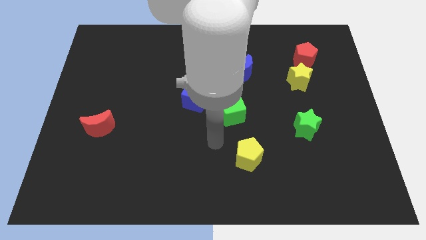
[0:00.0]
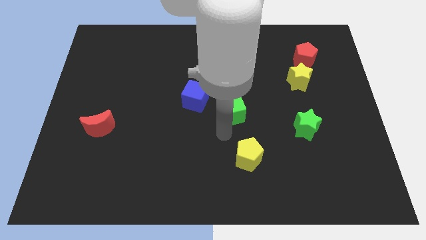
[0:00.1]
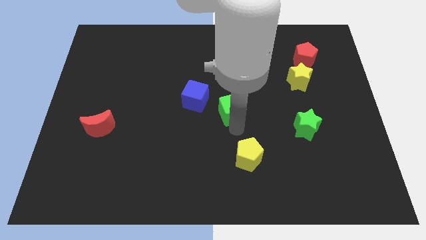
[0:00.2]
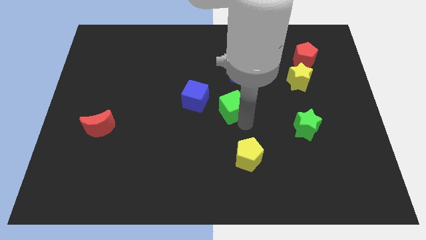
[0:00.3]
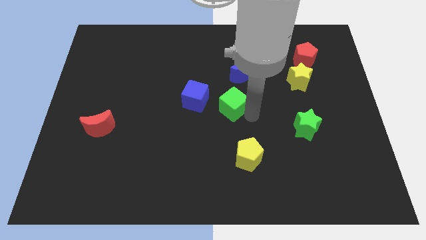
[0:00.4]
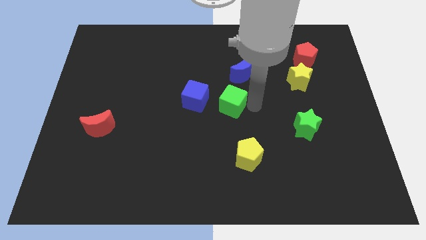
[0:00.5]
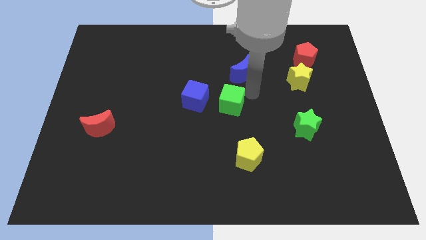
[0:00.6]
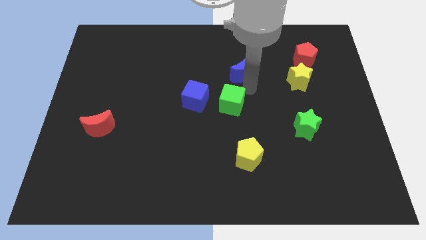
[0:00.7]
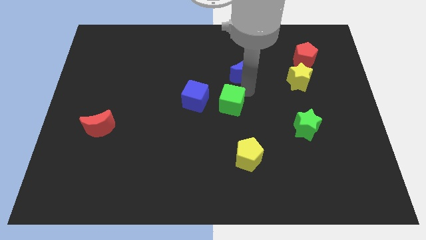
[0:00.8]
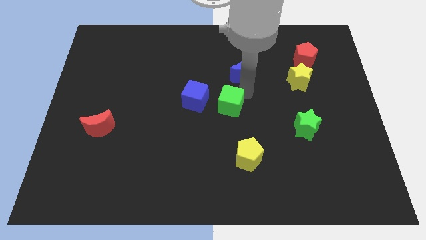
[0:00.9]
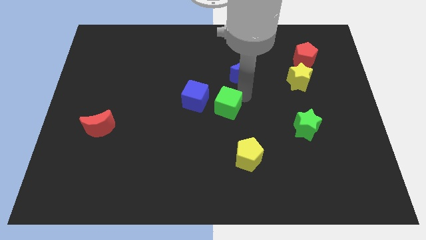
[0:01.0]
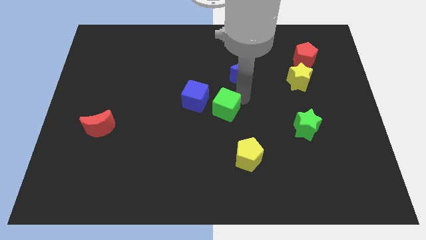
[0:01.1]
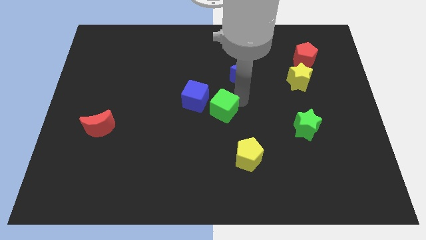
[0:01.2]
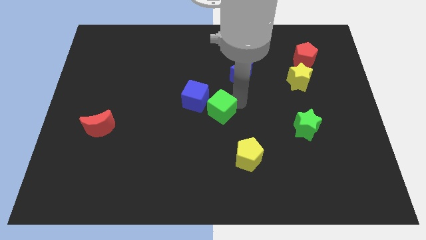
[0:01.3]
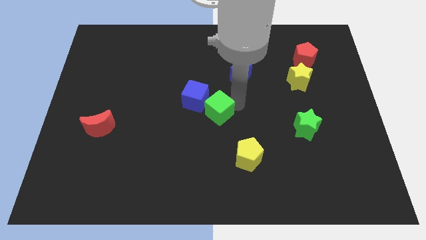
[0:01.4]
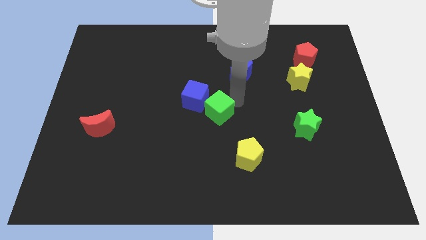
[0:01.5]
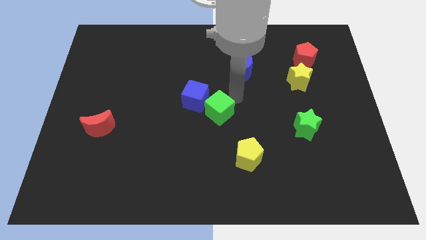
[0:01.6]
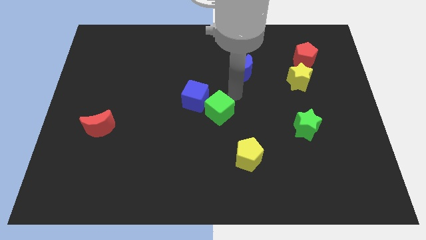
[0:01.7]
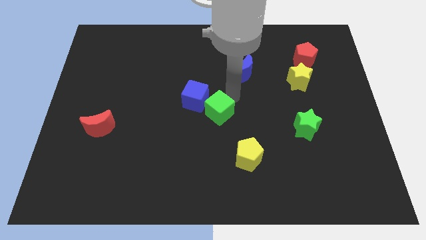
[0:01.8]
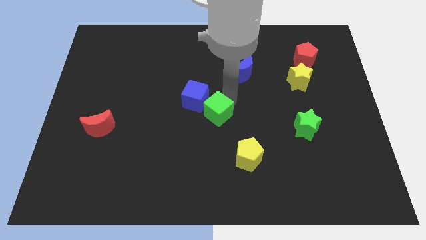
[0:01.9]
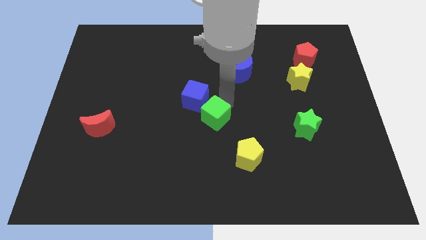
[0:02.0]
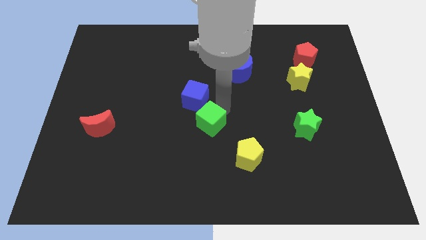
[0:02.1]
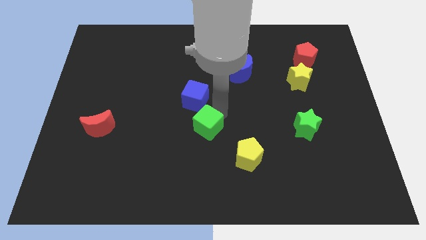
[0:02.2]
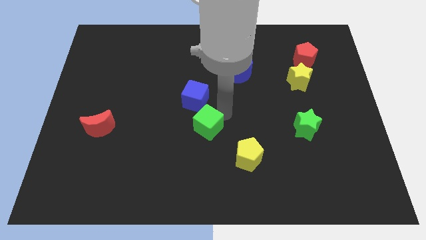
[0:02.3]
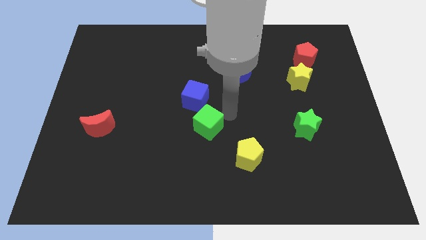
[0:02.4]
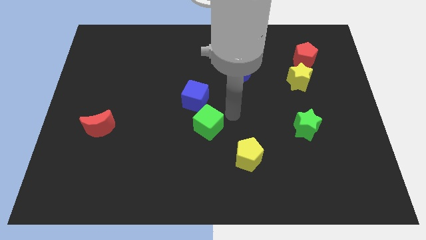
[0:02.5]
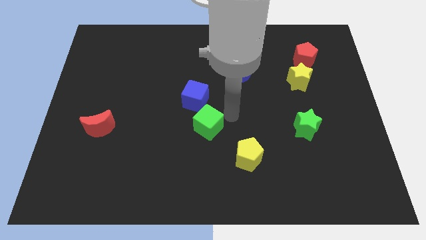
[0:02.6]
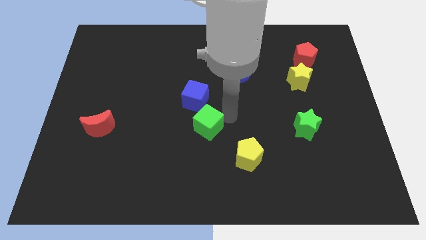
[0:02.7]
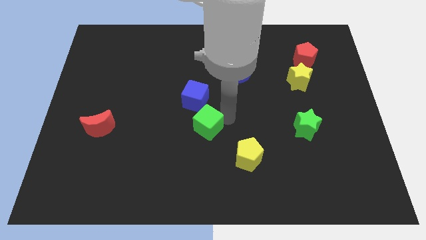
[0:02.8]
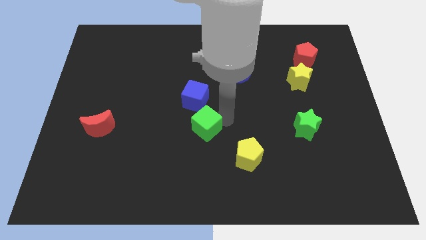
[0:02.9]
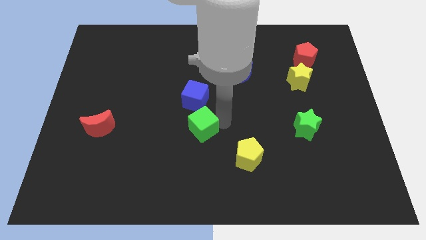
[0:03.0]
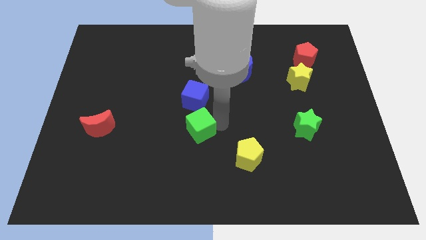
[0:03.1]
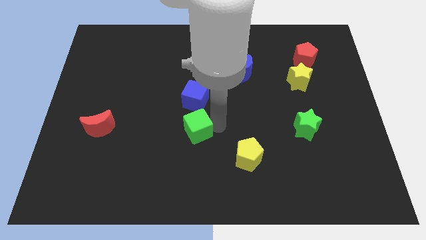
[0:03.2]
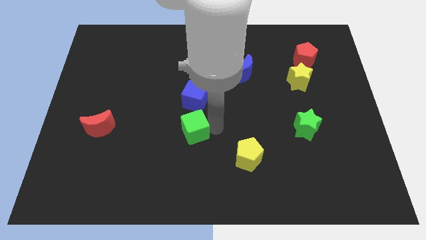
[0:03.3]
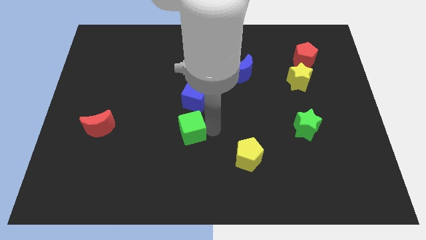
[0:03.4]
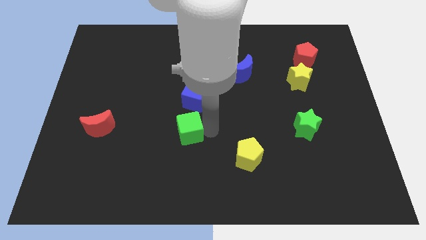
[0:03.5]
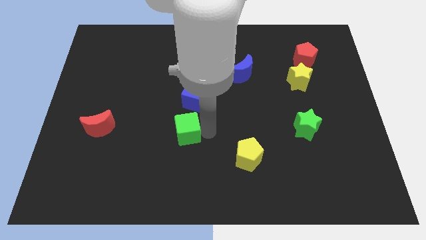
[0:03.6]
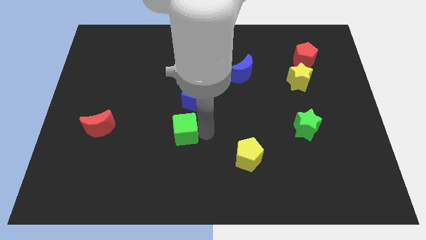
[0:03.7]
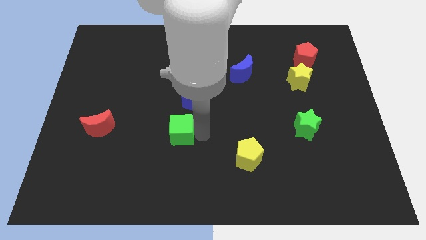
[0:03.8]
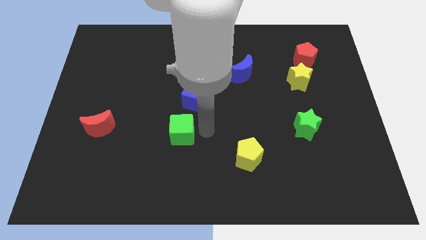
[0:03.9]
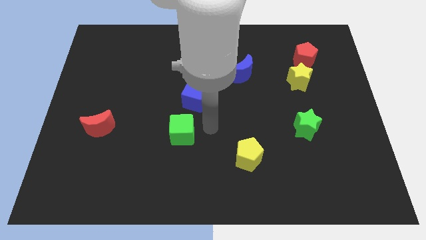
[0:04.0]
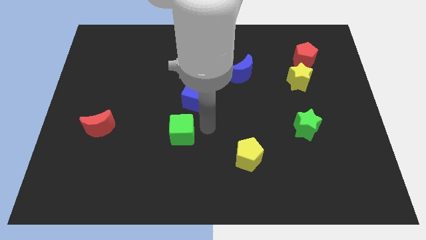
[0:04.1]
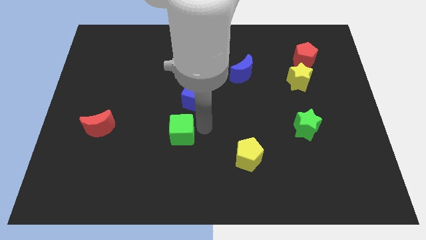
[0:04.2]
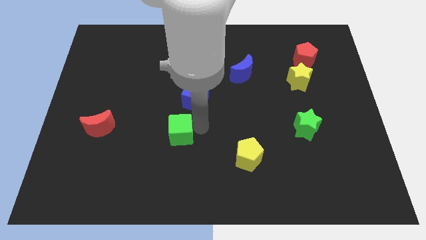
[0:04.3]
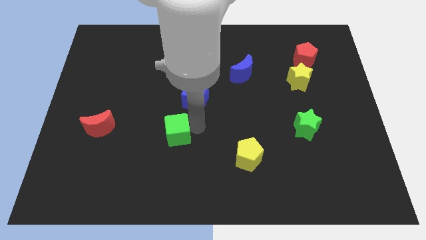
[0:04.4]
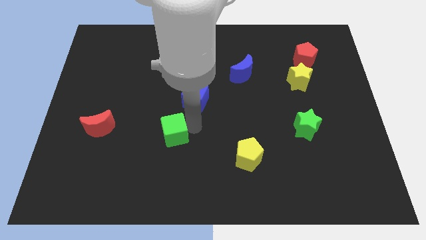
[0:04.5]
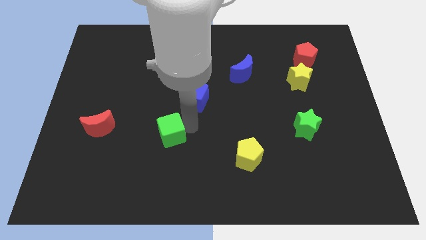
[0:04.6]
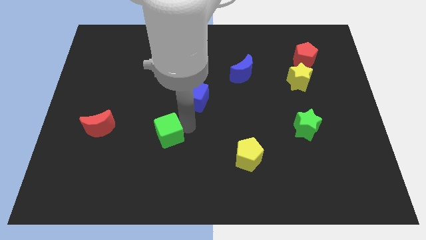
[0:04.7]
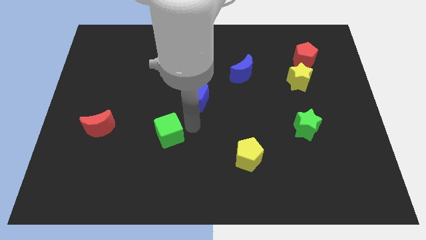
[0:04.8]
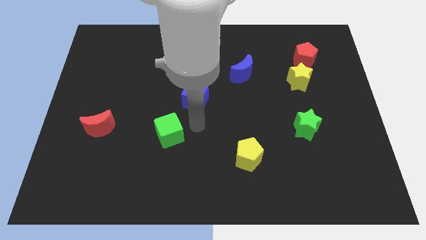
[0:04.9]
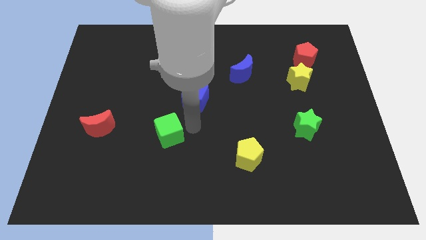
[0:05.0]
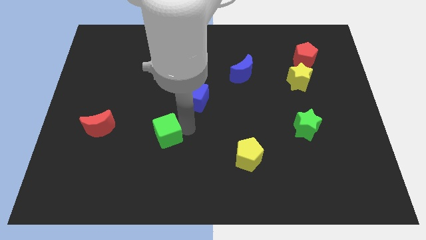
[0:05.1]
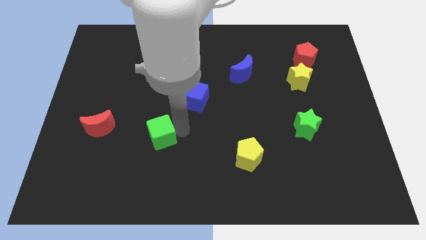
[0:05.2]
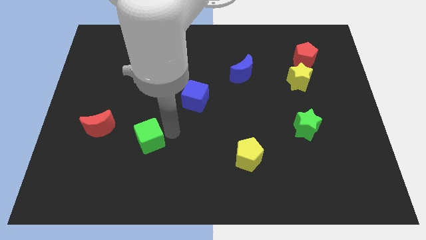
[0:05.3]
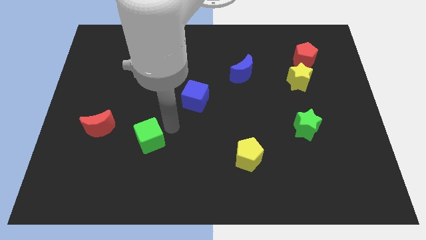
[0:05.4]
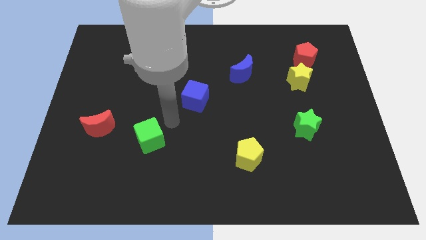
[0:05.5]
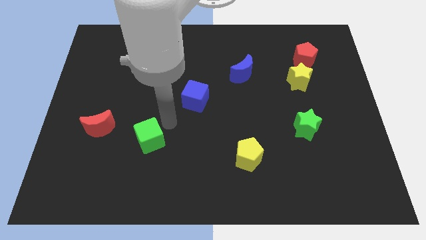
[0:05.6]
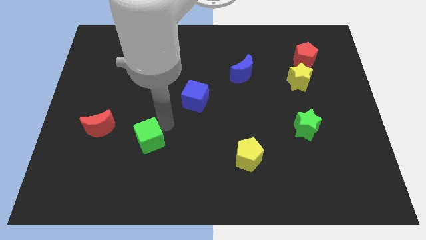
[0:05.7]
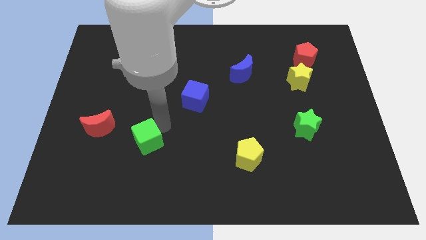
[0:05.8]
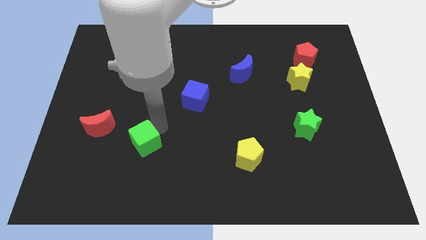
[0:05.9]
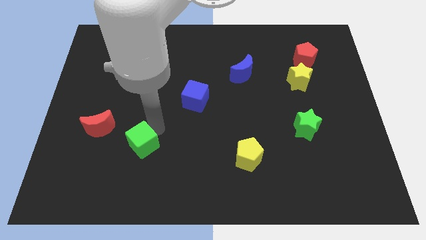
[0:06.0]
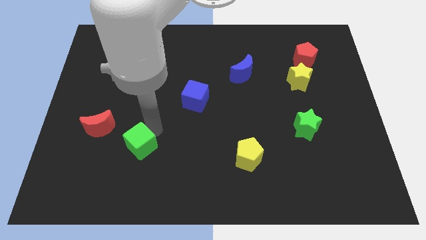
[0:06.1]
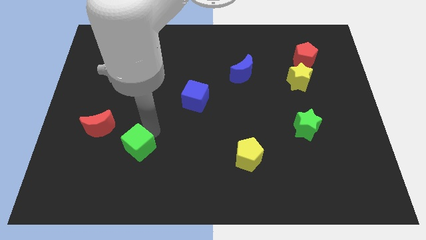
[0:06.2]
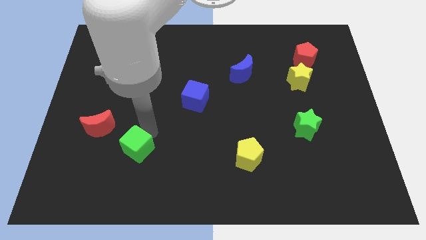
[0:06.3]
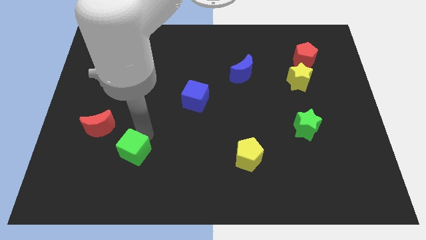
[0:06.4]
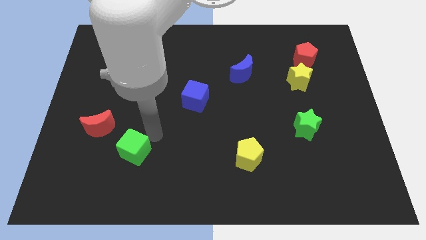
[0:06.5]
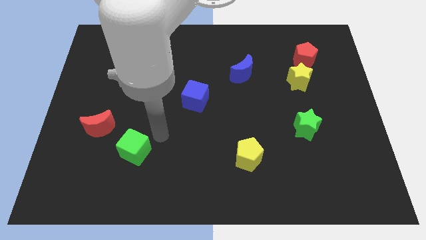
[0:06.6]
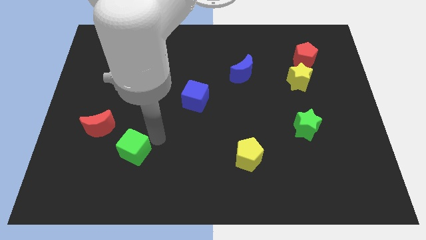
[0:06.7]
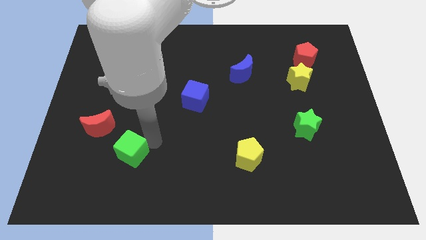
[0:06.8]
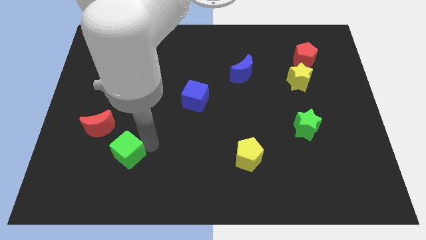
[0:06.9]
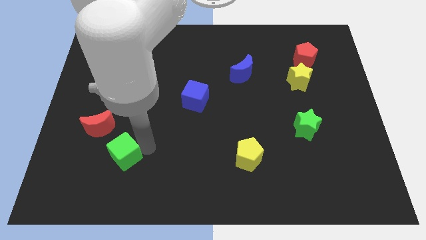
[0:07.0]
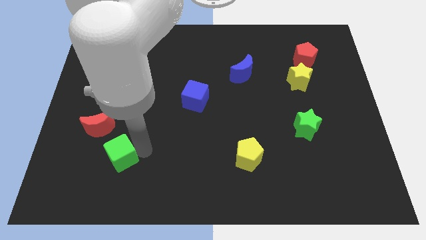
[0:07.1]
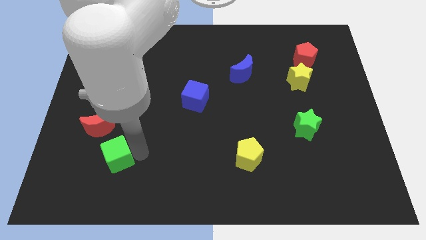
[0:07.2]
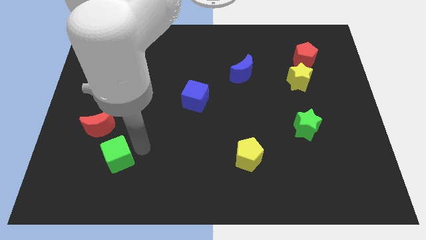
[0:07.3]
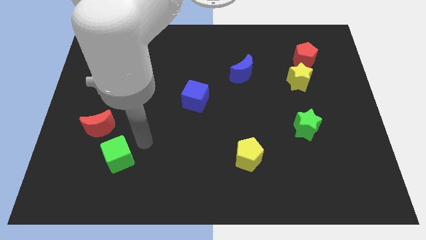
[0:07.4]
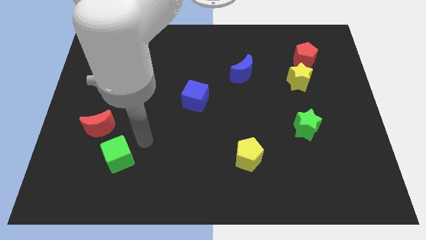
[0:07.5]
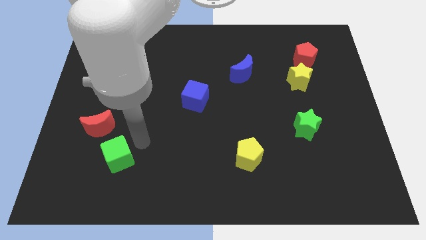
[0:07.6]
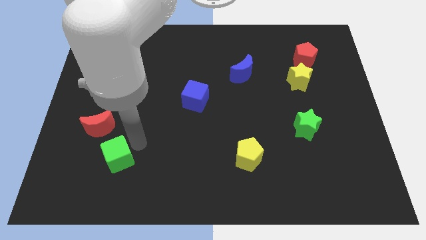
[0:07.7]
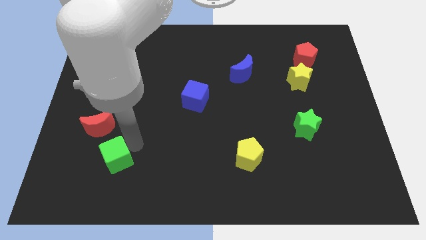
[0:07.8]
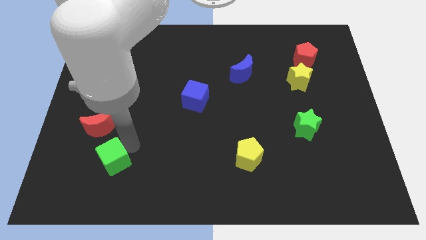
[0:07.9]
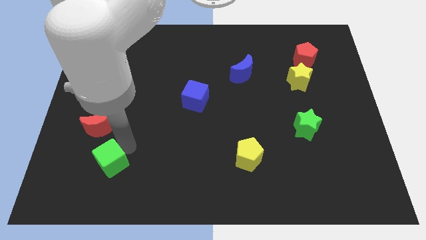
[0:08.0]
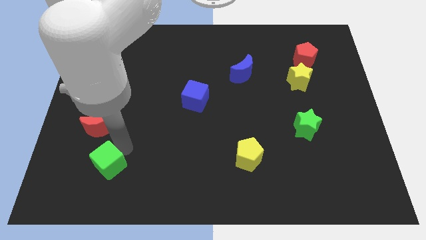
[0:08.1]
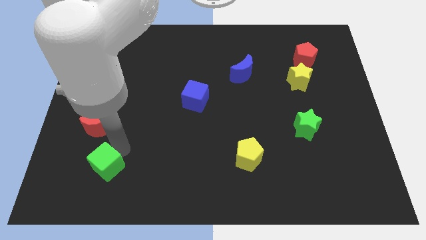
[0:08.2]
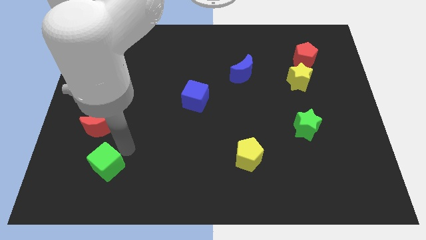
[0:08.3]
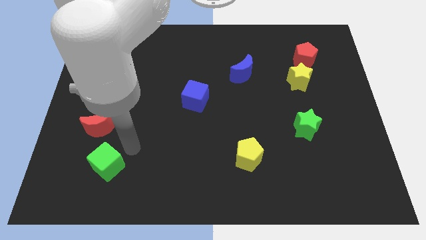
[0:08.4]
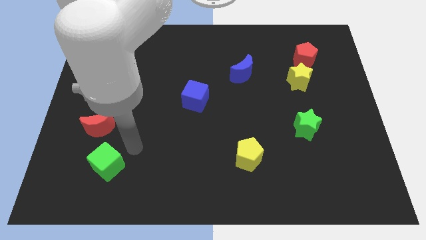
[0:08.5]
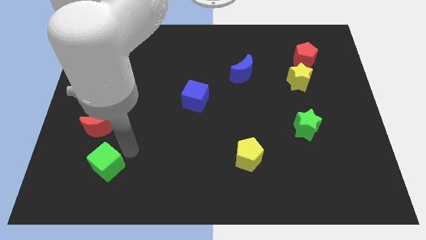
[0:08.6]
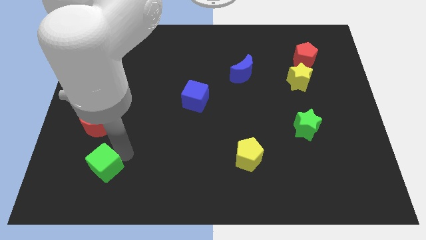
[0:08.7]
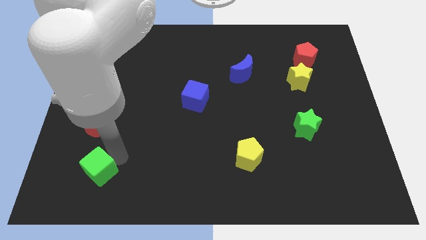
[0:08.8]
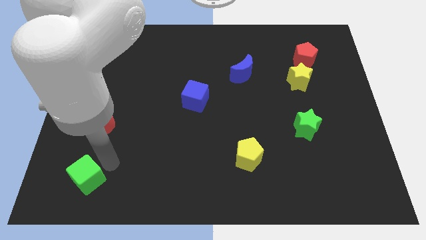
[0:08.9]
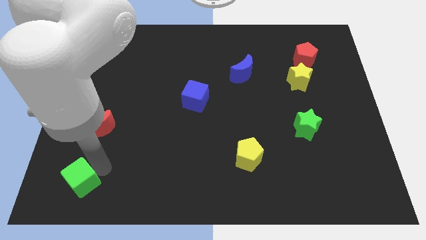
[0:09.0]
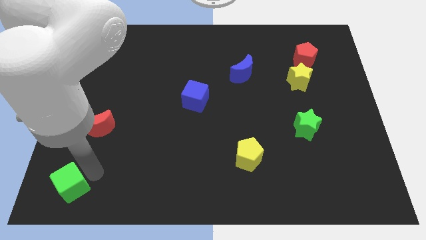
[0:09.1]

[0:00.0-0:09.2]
move the green cube to the lower left corner
